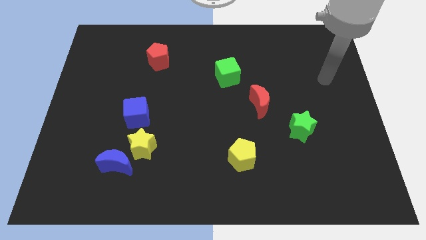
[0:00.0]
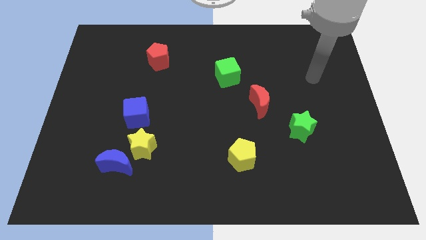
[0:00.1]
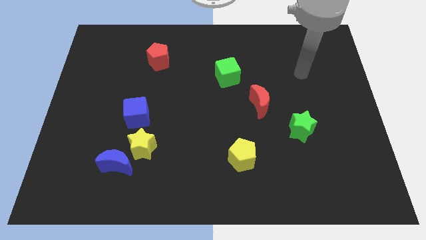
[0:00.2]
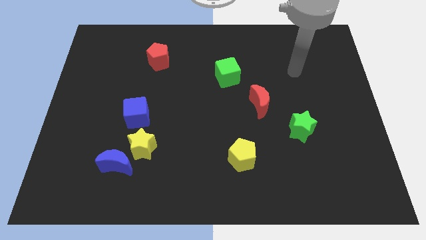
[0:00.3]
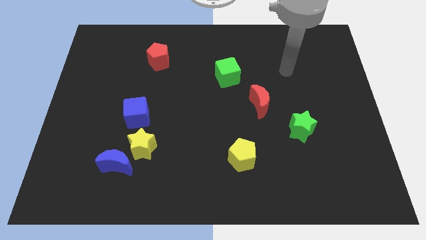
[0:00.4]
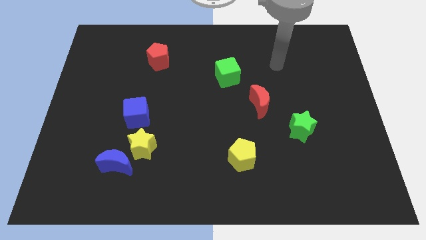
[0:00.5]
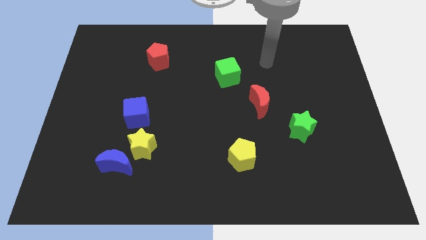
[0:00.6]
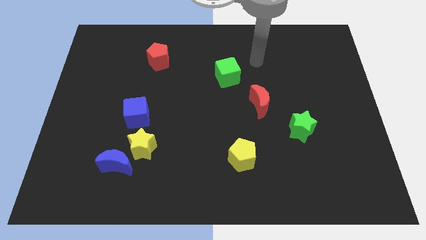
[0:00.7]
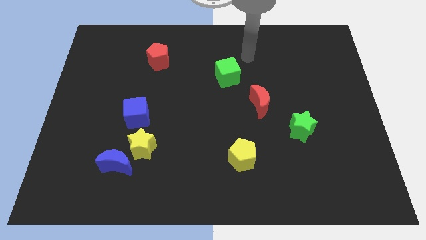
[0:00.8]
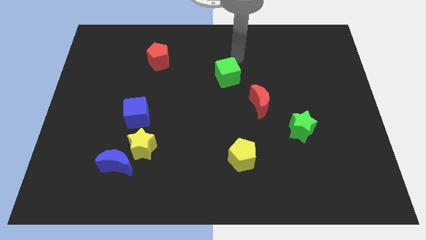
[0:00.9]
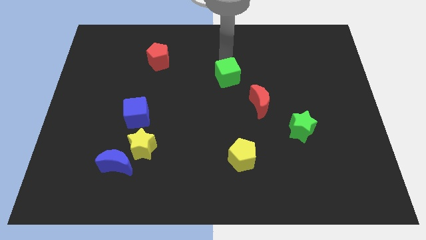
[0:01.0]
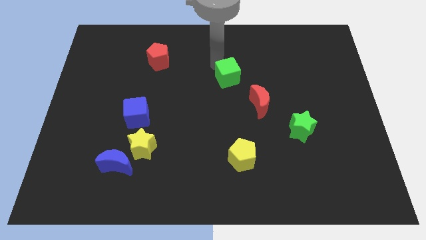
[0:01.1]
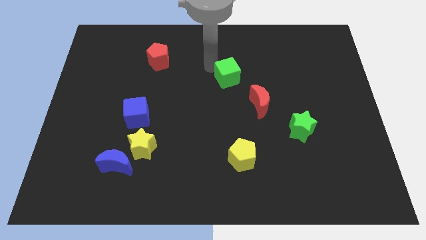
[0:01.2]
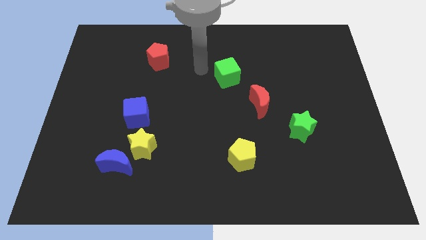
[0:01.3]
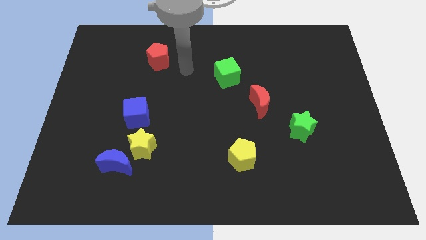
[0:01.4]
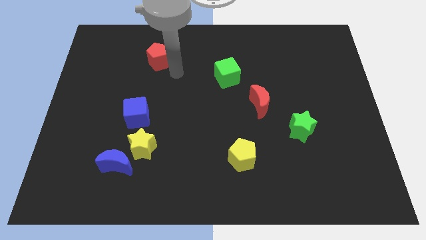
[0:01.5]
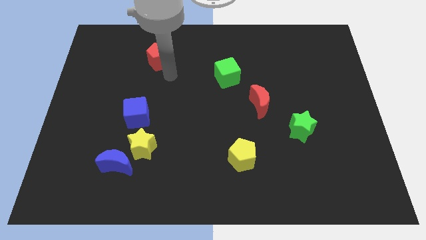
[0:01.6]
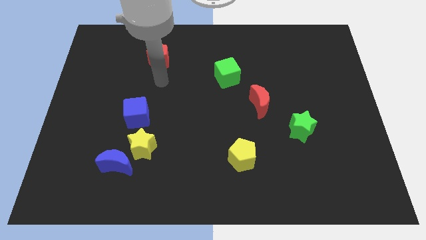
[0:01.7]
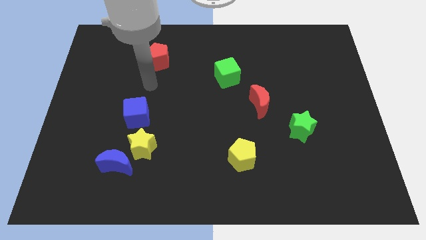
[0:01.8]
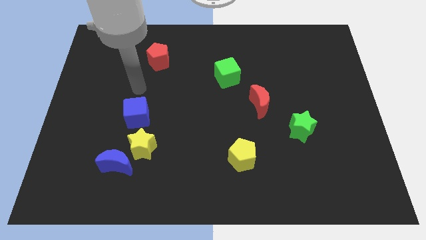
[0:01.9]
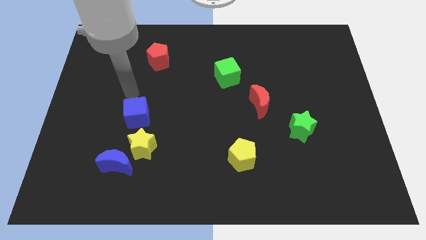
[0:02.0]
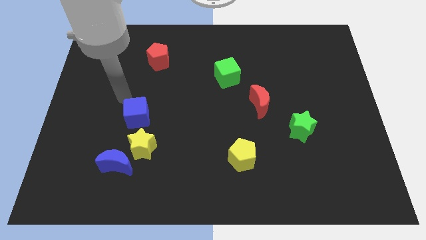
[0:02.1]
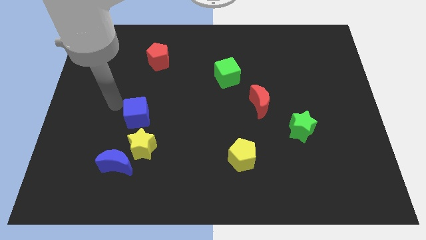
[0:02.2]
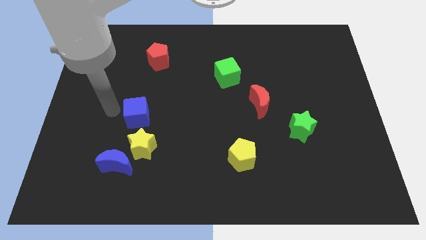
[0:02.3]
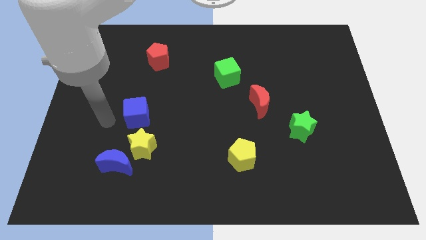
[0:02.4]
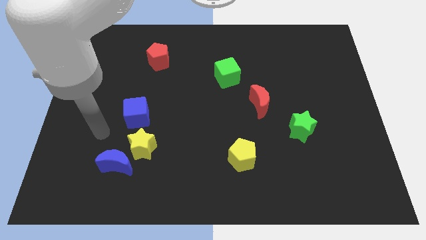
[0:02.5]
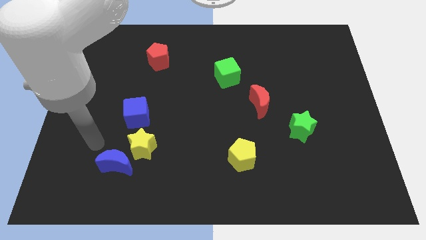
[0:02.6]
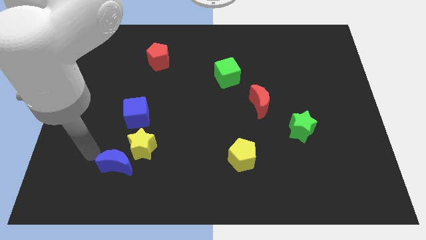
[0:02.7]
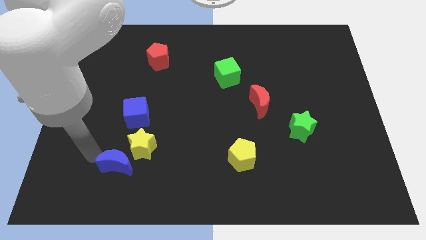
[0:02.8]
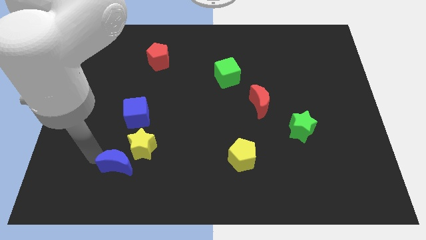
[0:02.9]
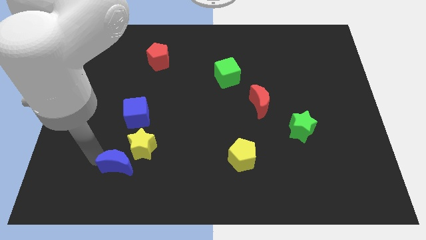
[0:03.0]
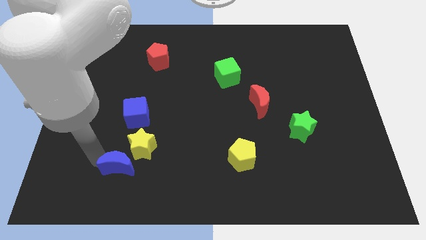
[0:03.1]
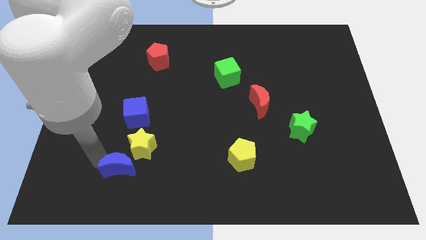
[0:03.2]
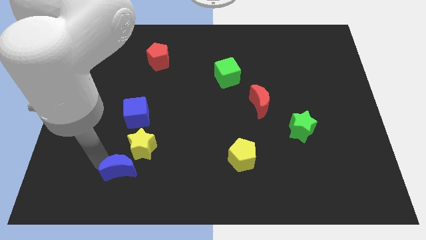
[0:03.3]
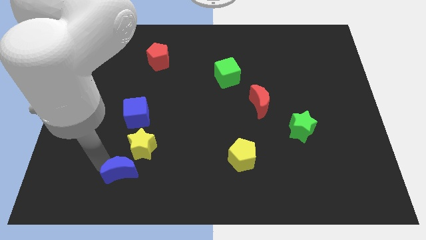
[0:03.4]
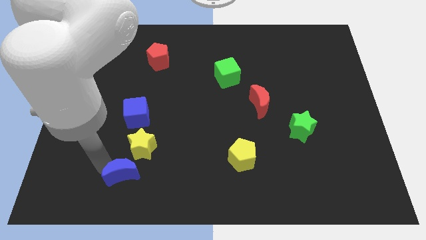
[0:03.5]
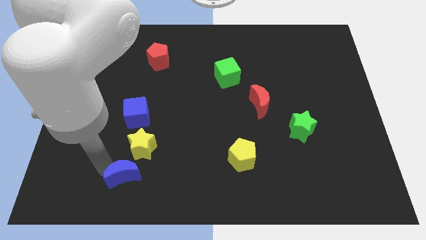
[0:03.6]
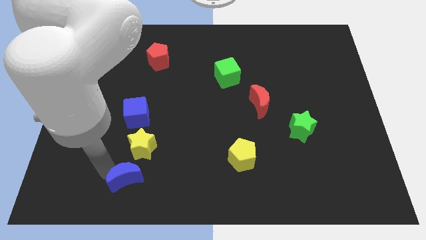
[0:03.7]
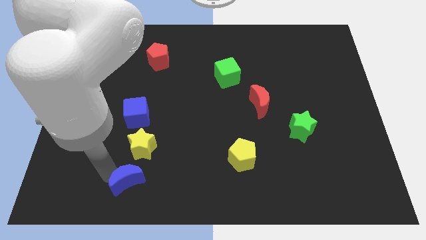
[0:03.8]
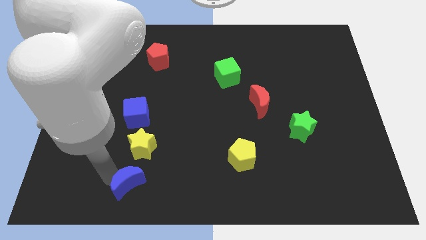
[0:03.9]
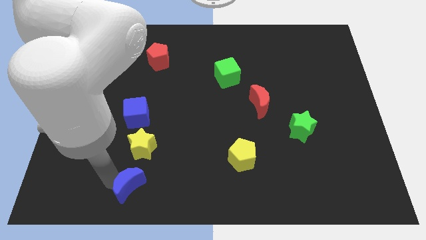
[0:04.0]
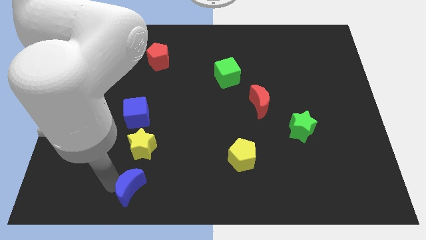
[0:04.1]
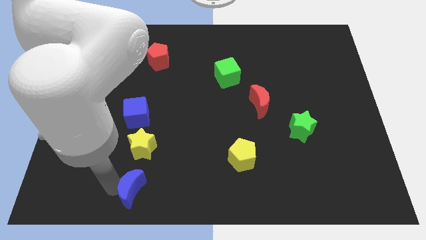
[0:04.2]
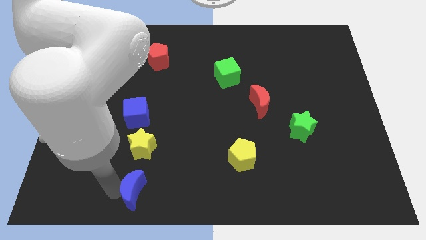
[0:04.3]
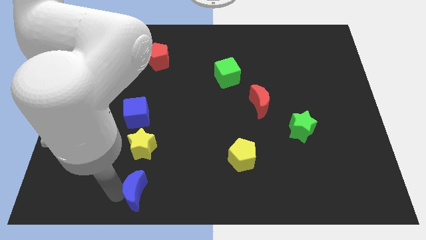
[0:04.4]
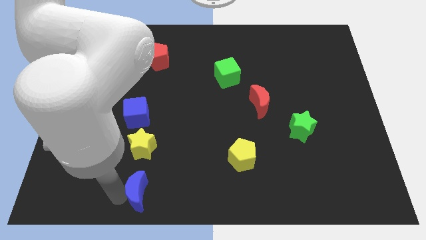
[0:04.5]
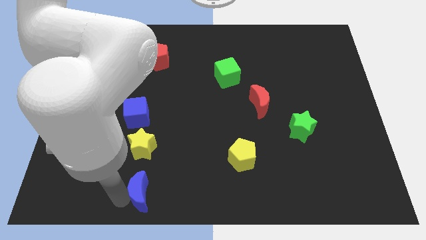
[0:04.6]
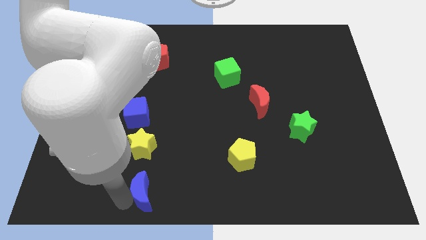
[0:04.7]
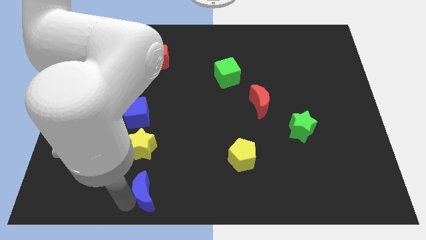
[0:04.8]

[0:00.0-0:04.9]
push the blue moon to the bottom

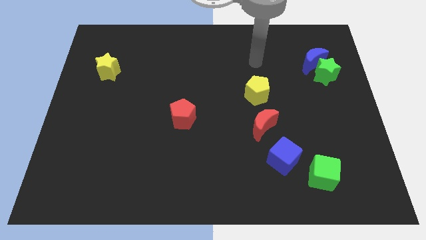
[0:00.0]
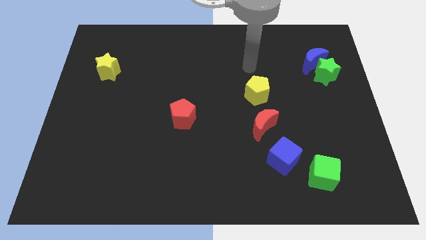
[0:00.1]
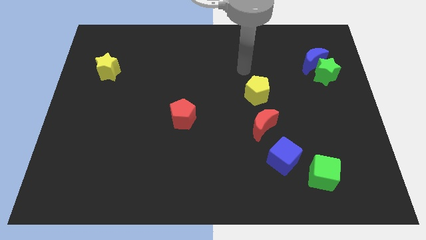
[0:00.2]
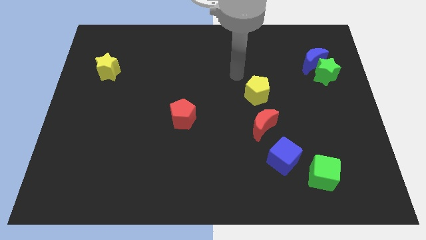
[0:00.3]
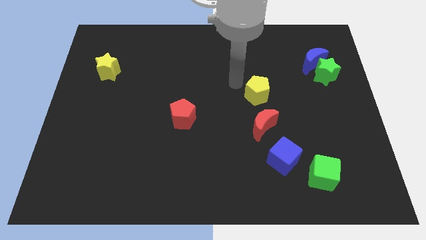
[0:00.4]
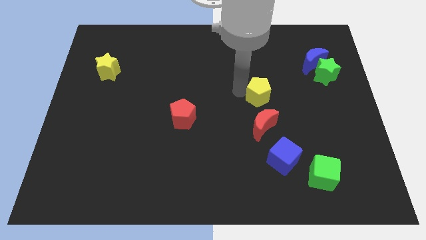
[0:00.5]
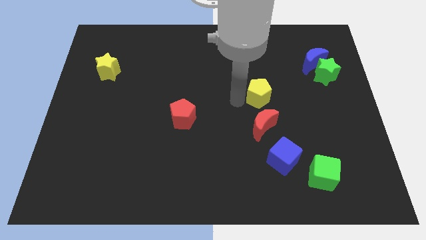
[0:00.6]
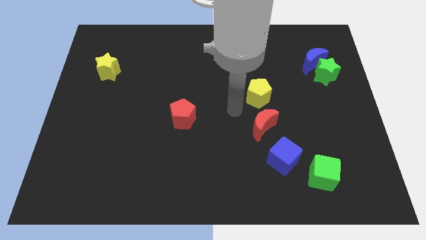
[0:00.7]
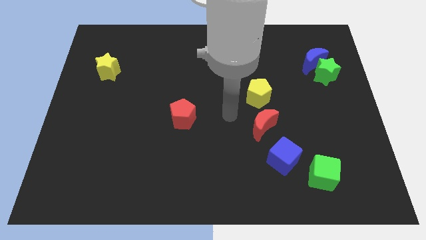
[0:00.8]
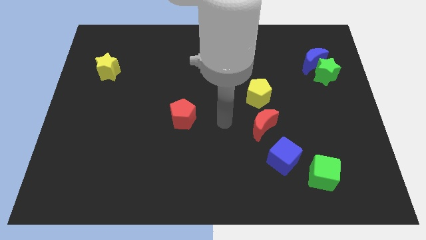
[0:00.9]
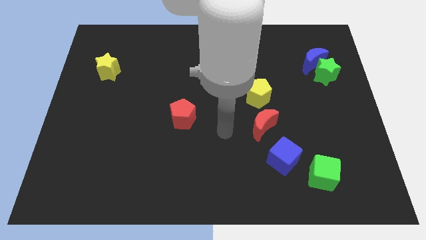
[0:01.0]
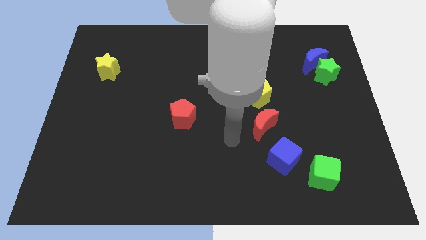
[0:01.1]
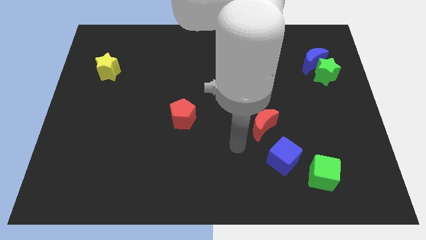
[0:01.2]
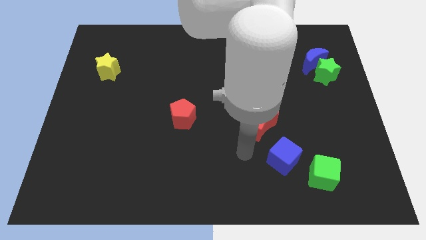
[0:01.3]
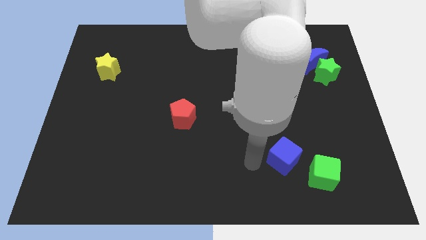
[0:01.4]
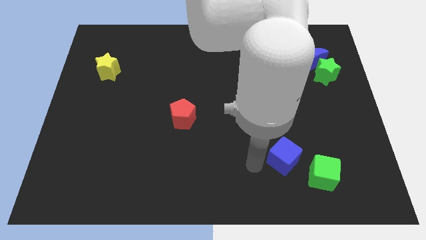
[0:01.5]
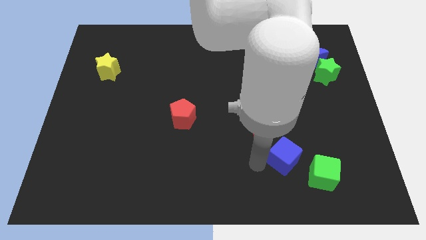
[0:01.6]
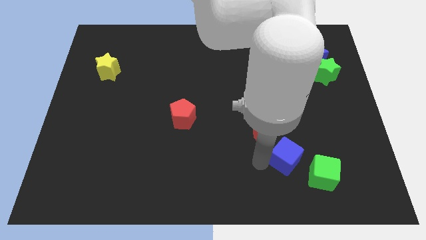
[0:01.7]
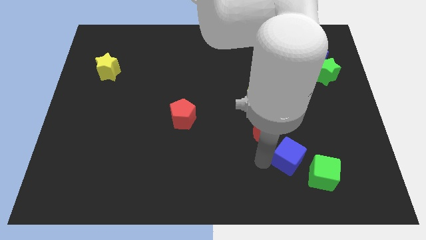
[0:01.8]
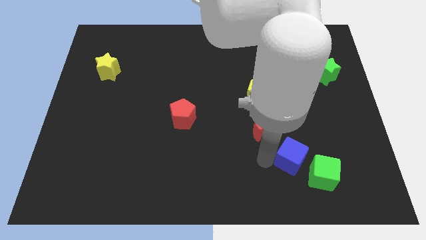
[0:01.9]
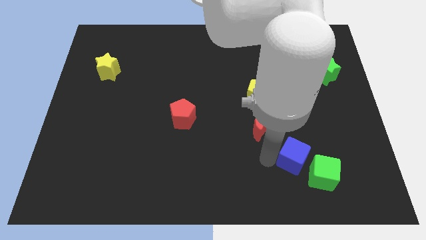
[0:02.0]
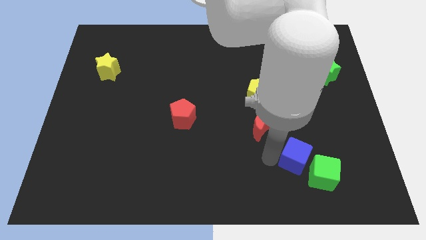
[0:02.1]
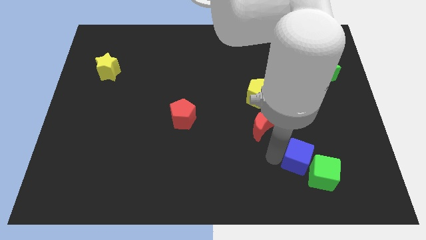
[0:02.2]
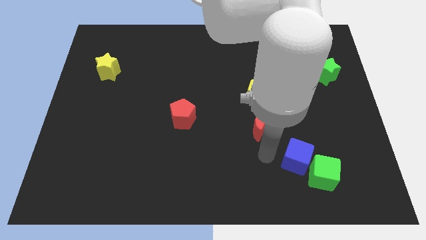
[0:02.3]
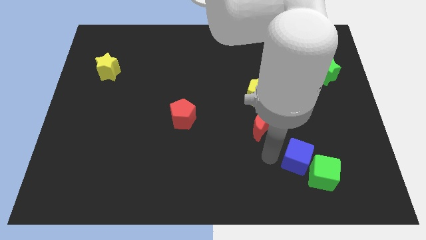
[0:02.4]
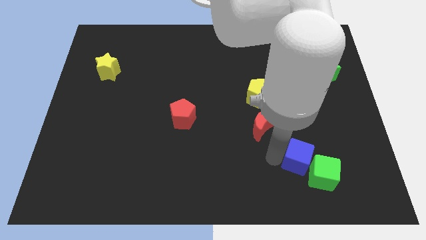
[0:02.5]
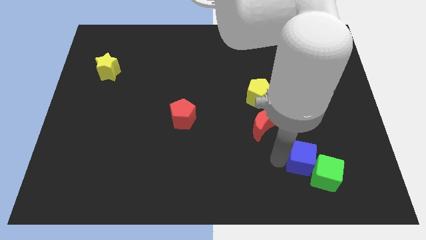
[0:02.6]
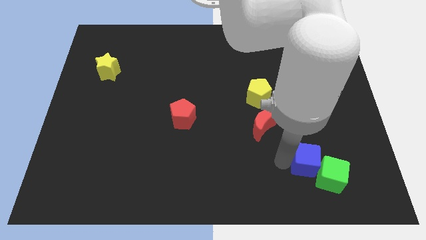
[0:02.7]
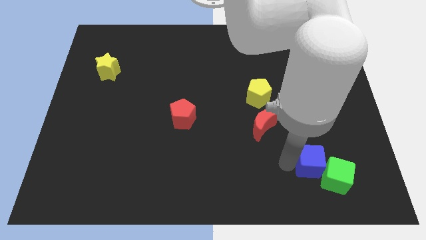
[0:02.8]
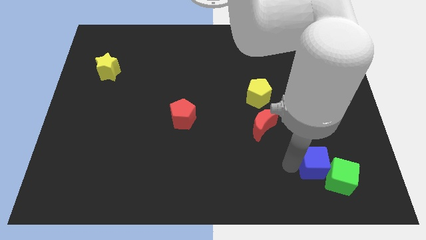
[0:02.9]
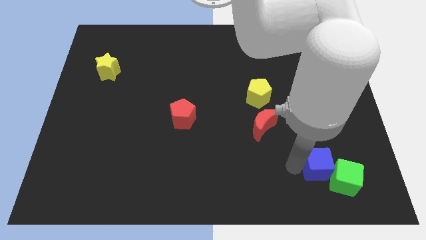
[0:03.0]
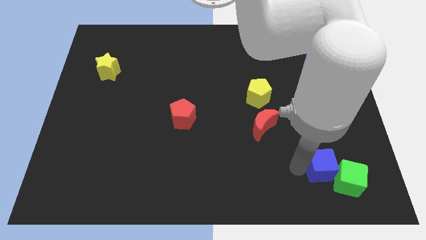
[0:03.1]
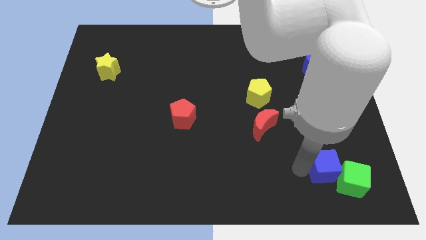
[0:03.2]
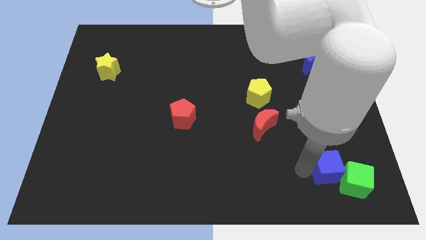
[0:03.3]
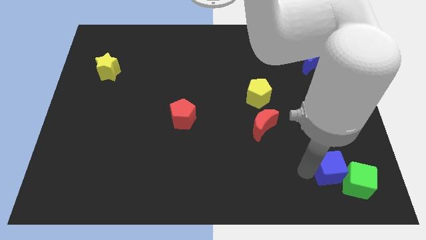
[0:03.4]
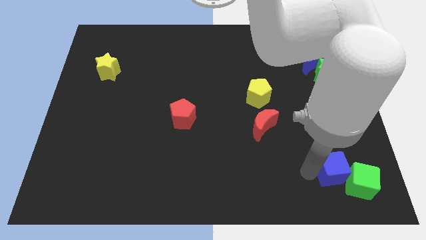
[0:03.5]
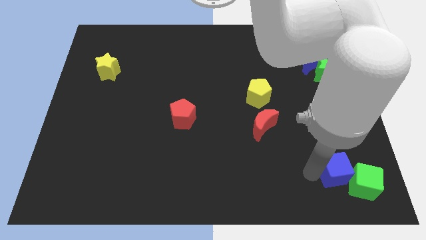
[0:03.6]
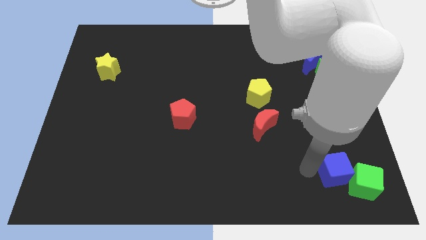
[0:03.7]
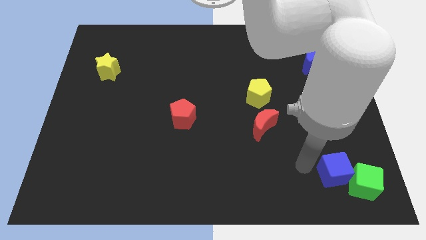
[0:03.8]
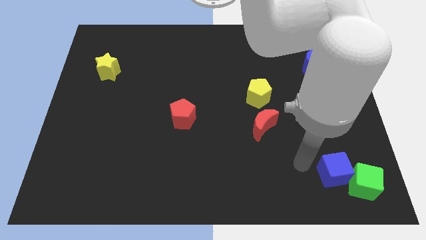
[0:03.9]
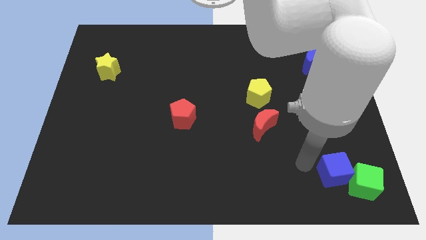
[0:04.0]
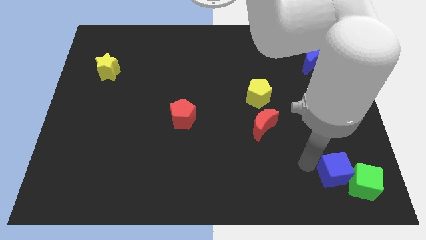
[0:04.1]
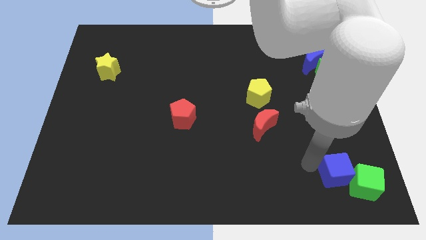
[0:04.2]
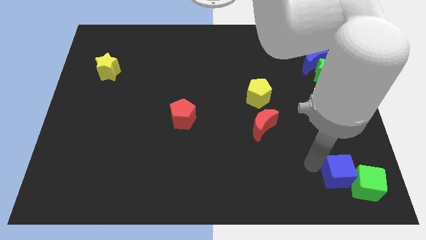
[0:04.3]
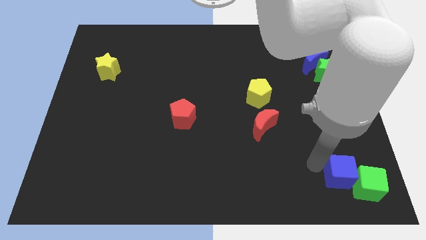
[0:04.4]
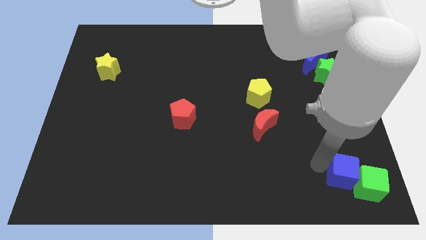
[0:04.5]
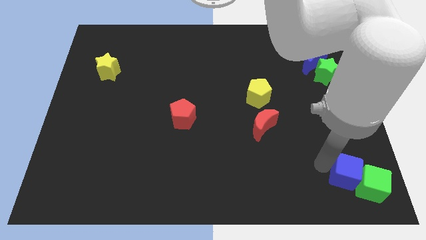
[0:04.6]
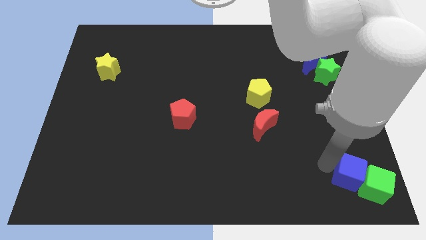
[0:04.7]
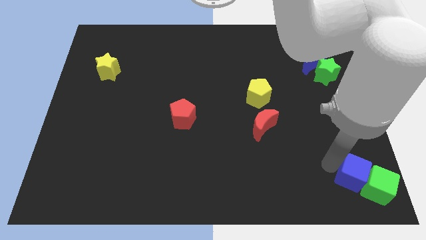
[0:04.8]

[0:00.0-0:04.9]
slide the blue cube to the bottom right of the board
